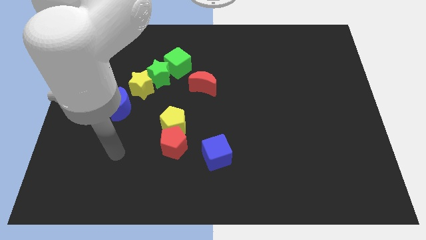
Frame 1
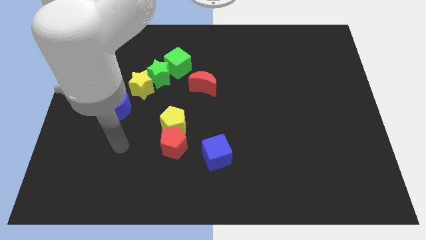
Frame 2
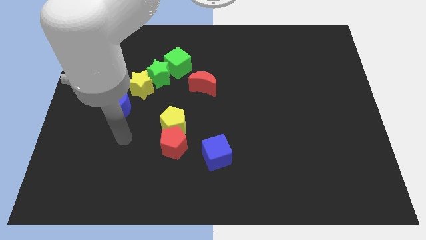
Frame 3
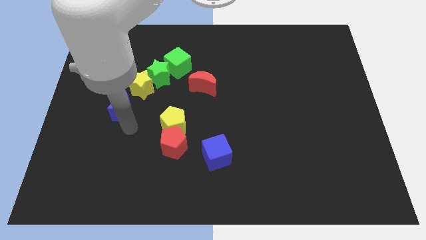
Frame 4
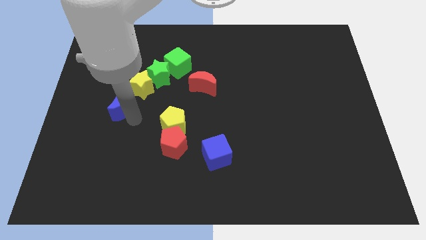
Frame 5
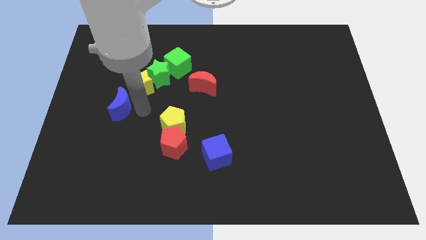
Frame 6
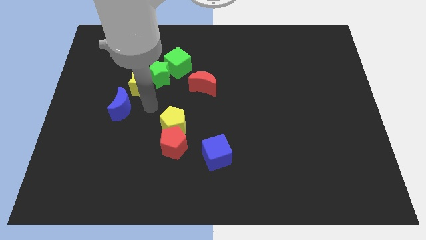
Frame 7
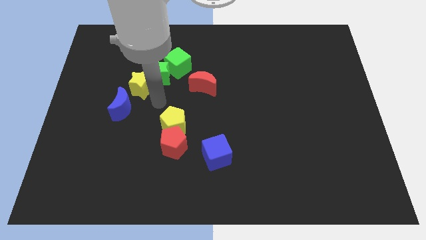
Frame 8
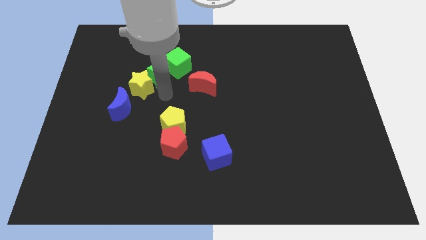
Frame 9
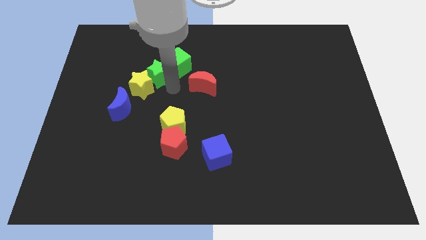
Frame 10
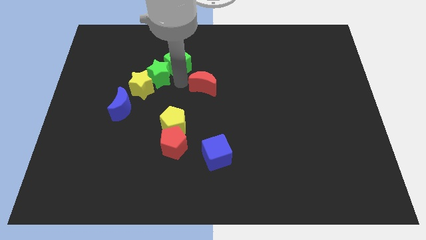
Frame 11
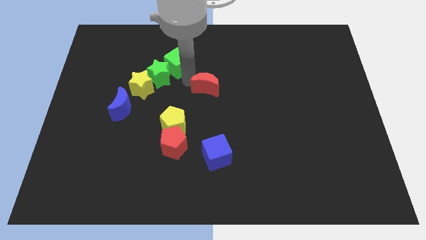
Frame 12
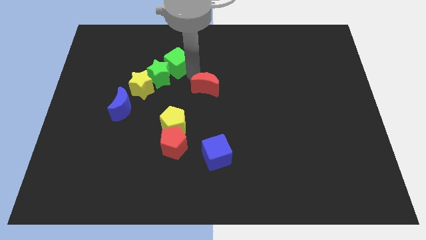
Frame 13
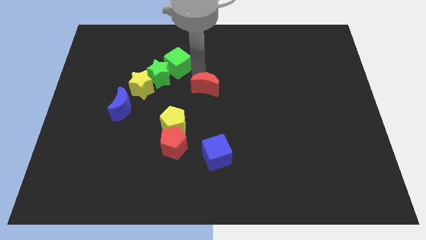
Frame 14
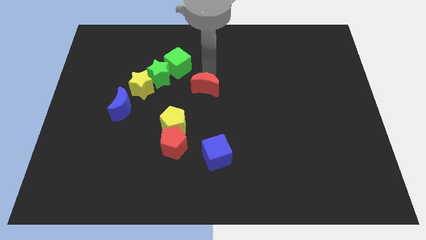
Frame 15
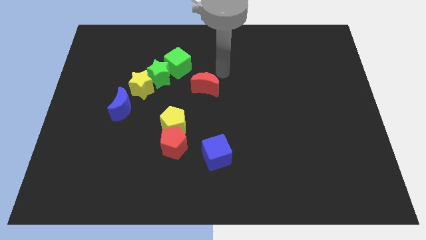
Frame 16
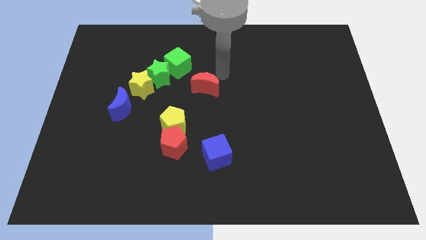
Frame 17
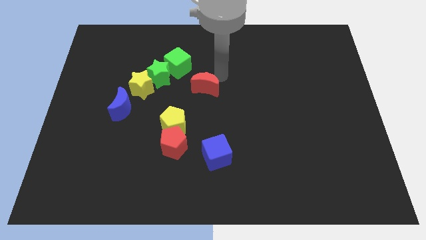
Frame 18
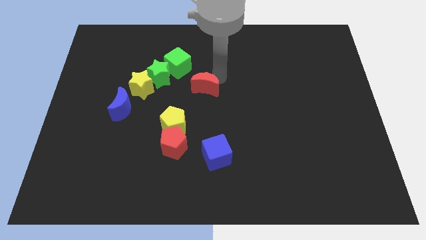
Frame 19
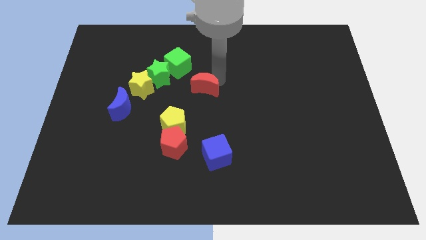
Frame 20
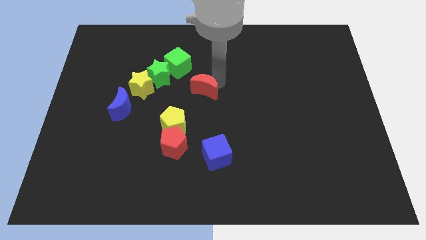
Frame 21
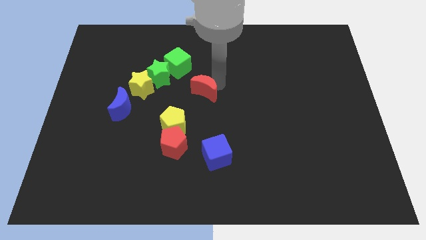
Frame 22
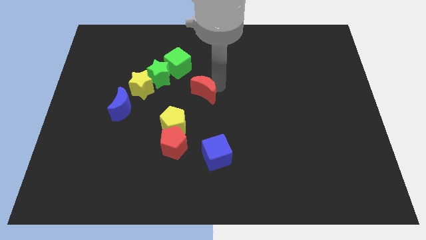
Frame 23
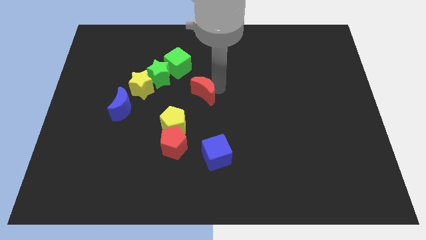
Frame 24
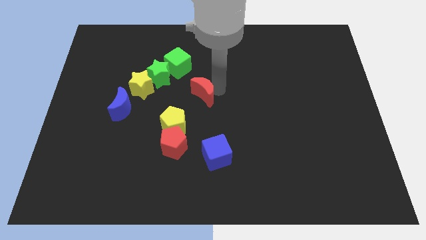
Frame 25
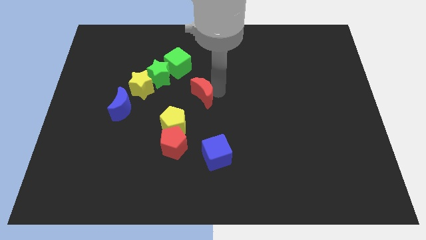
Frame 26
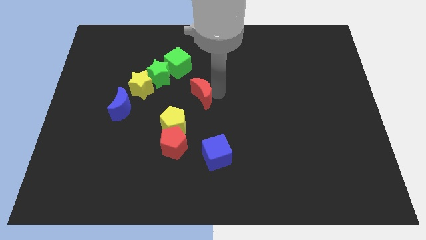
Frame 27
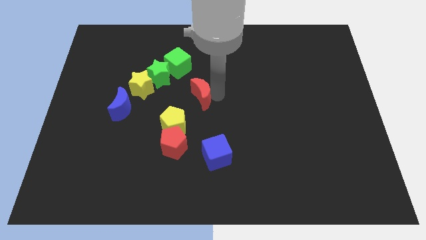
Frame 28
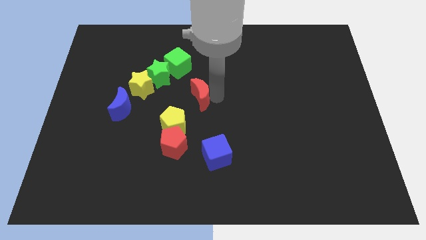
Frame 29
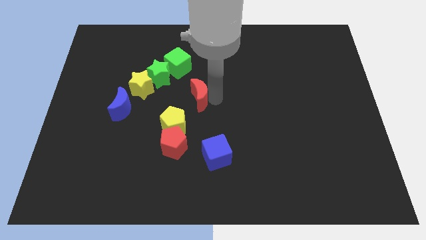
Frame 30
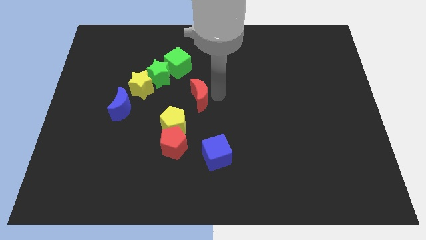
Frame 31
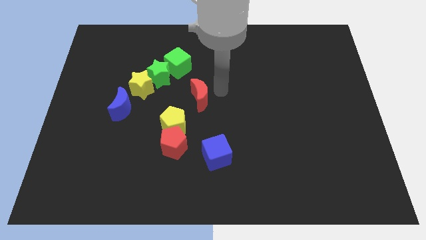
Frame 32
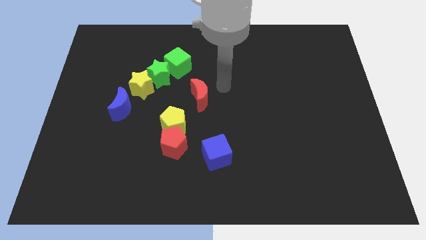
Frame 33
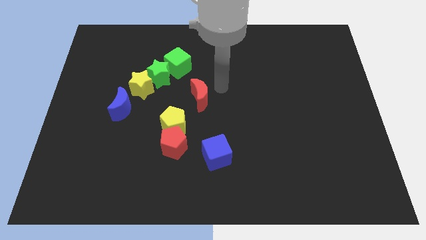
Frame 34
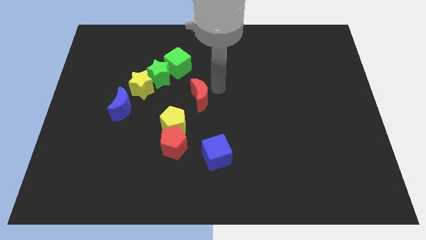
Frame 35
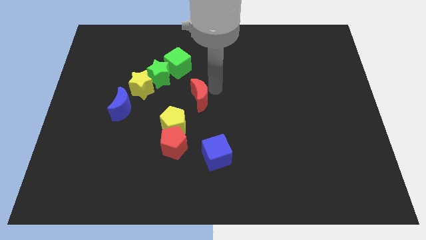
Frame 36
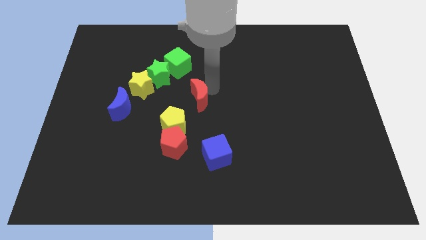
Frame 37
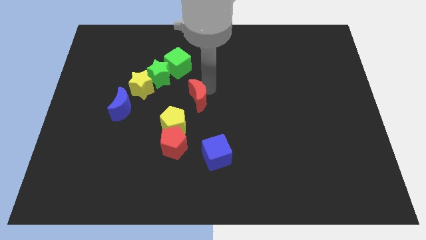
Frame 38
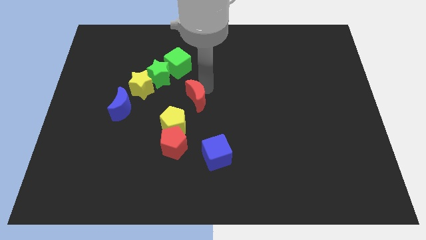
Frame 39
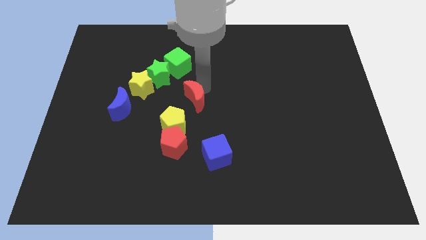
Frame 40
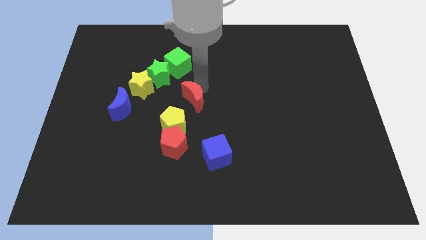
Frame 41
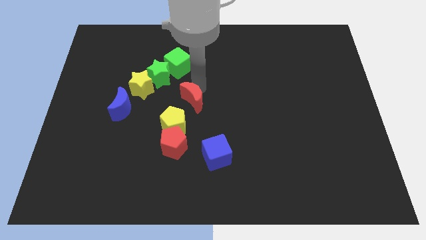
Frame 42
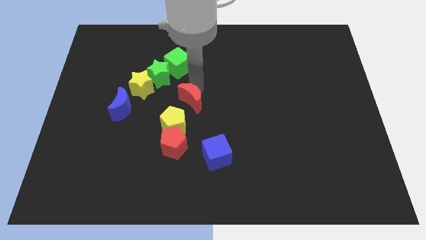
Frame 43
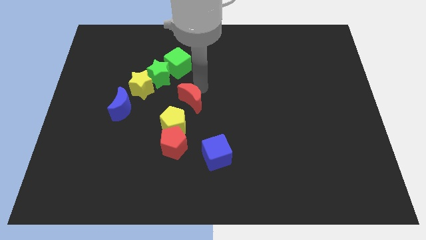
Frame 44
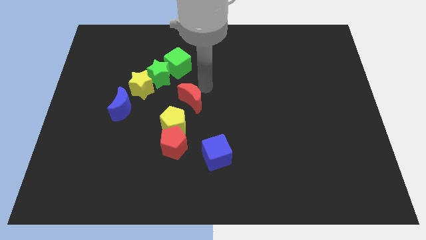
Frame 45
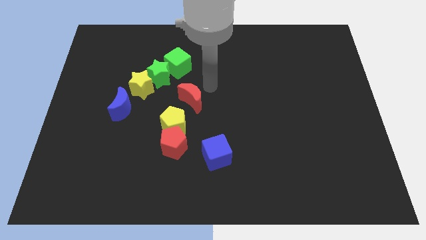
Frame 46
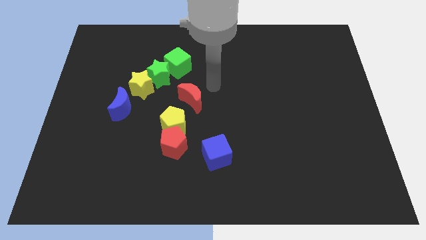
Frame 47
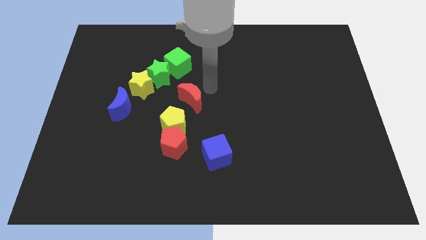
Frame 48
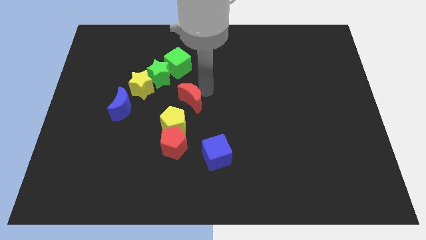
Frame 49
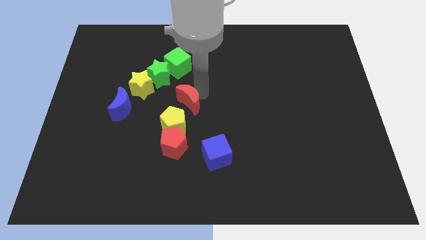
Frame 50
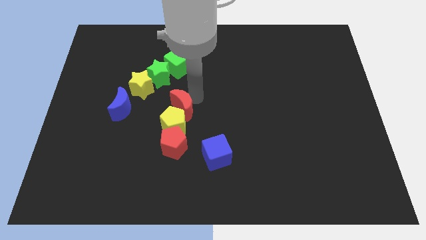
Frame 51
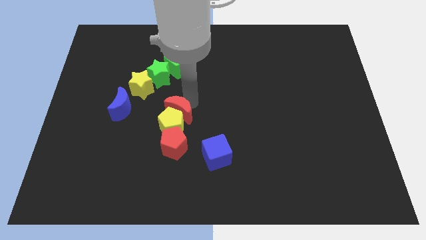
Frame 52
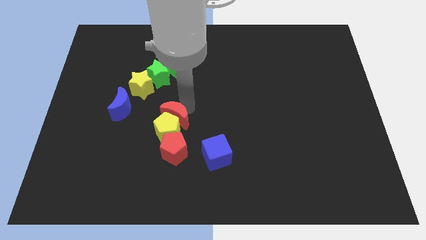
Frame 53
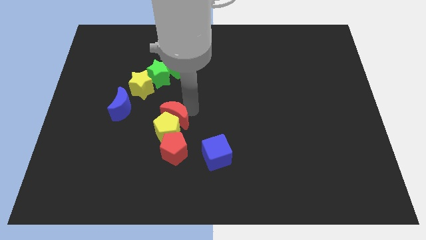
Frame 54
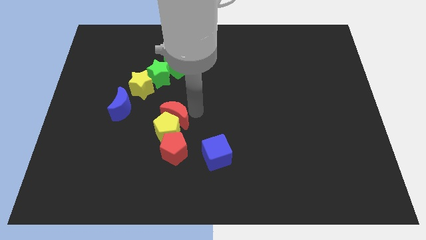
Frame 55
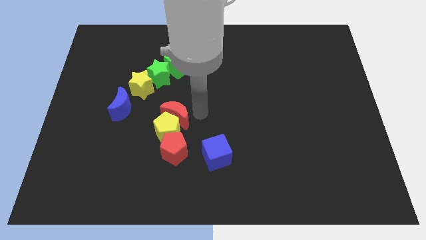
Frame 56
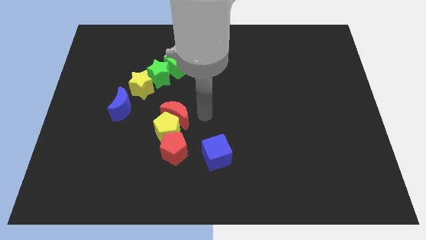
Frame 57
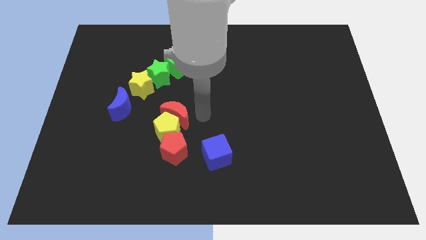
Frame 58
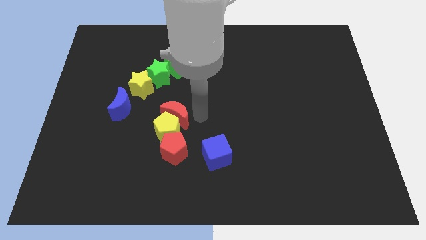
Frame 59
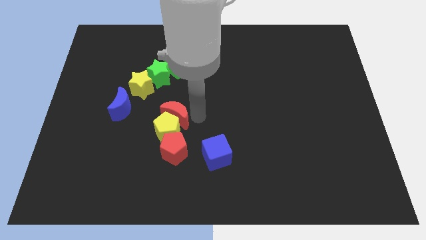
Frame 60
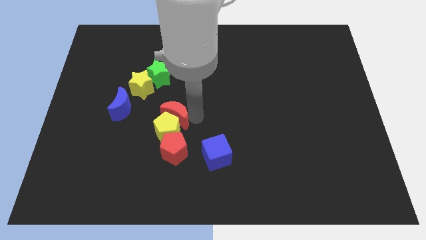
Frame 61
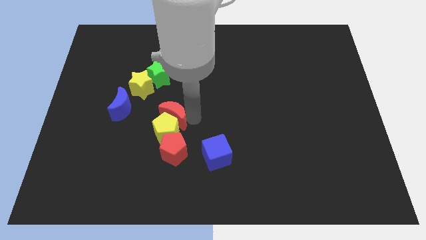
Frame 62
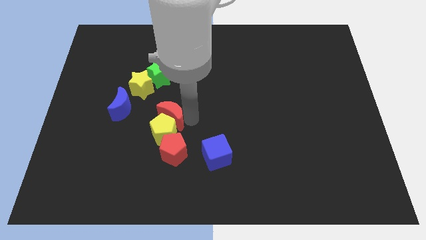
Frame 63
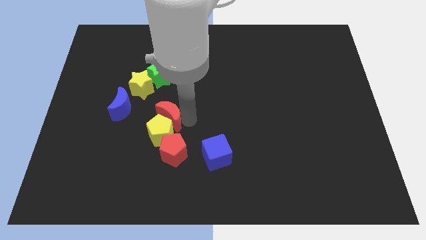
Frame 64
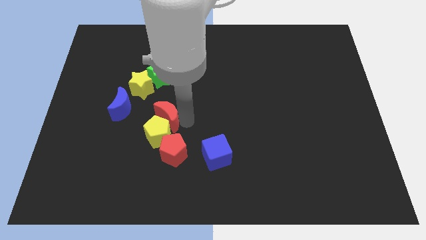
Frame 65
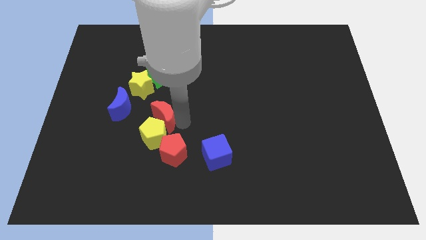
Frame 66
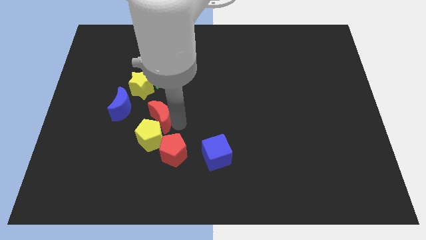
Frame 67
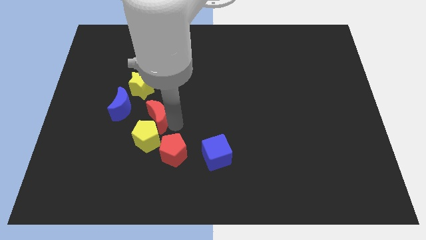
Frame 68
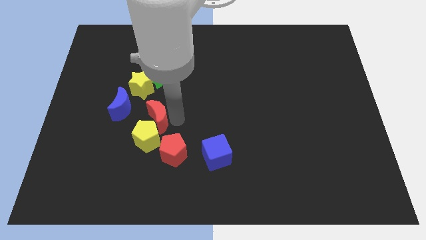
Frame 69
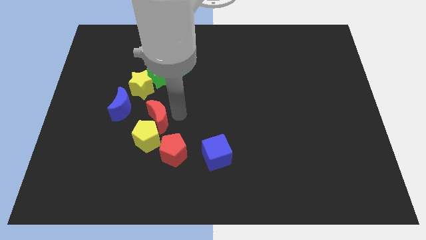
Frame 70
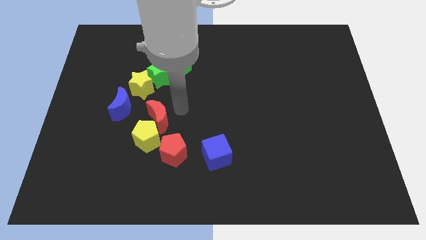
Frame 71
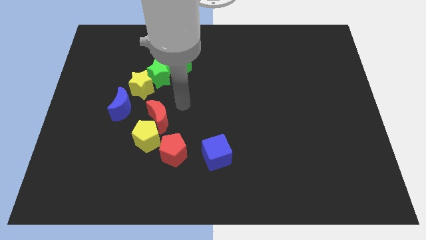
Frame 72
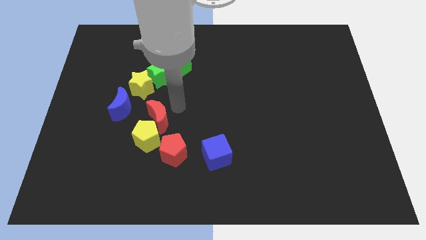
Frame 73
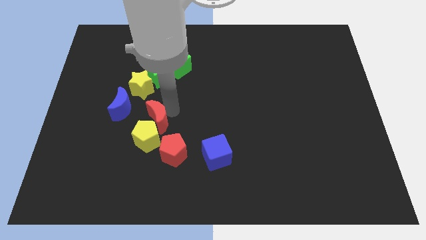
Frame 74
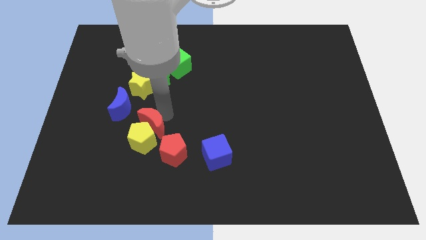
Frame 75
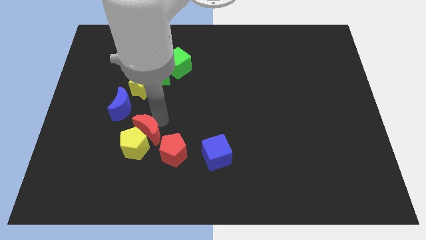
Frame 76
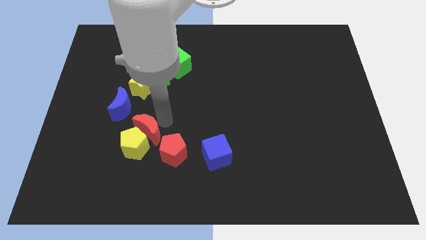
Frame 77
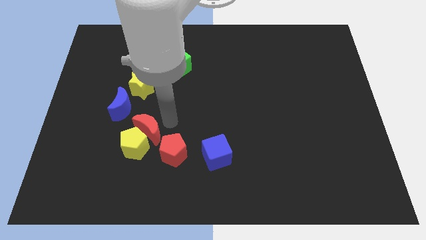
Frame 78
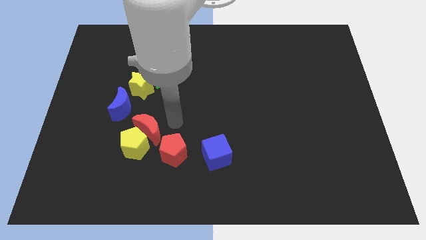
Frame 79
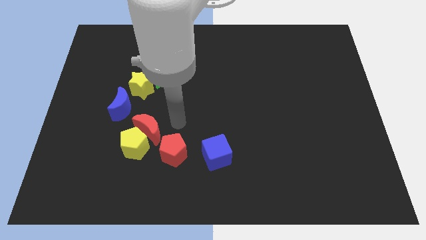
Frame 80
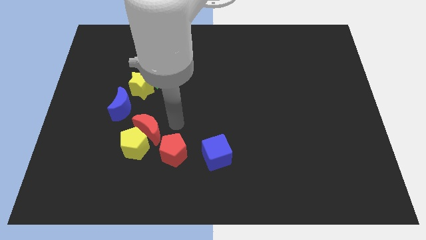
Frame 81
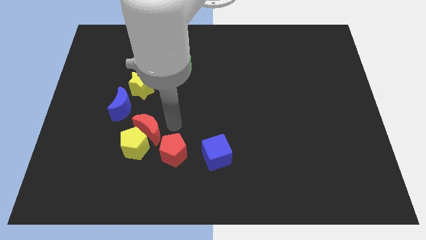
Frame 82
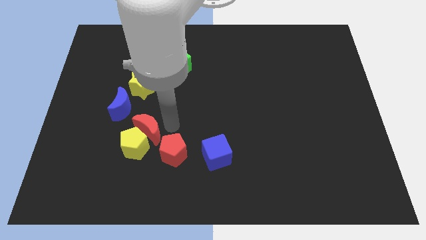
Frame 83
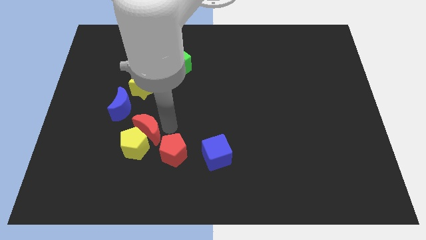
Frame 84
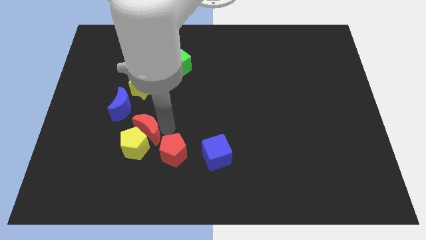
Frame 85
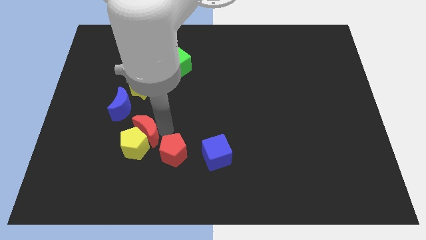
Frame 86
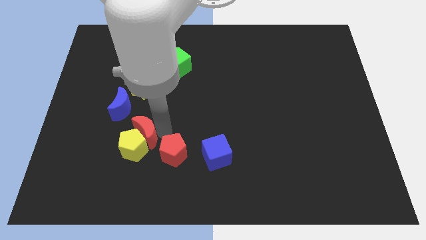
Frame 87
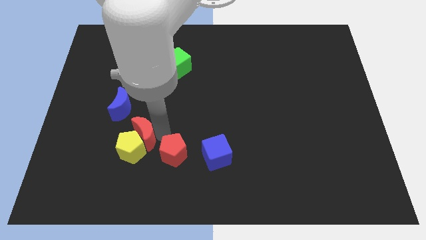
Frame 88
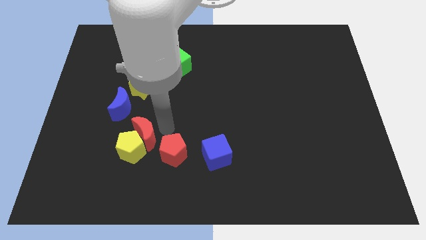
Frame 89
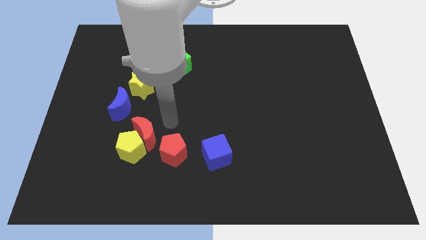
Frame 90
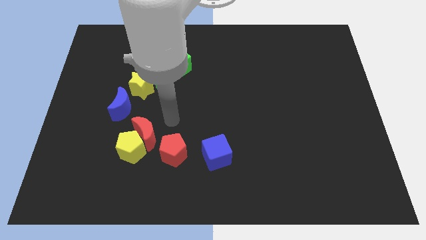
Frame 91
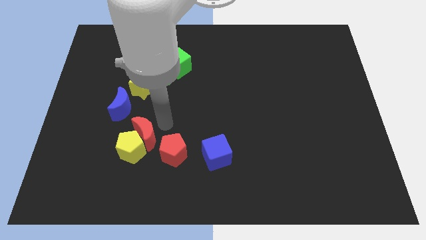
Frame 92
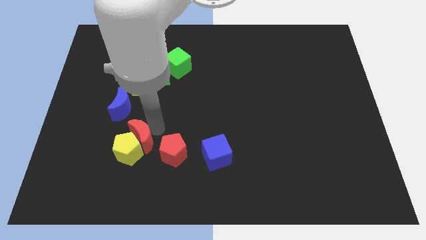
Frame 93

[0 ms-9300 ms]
slide the red moon downwards and then to the left
